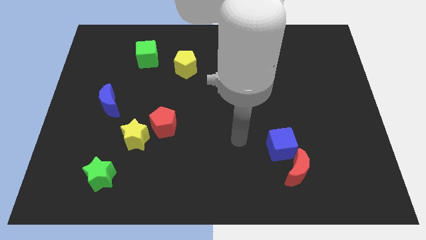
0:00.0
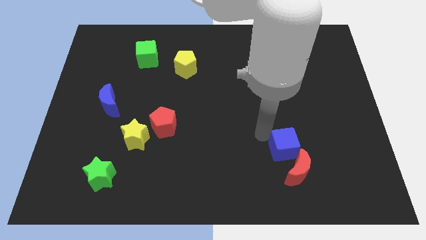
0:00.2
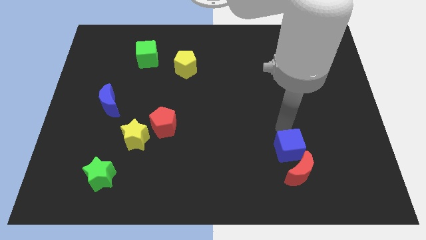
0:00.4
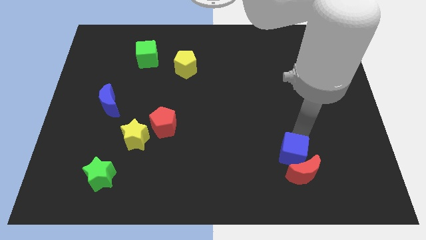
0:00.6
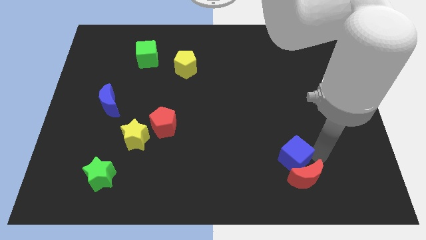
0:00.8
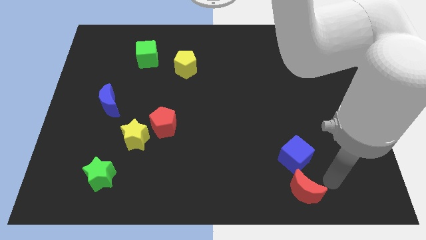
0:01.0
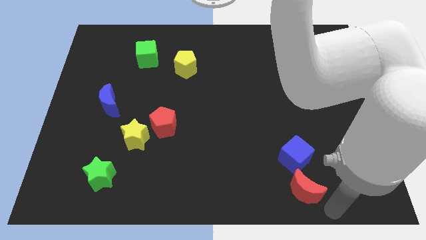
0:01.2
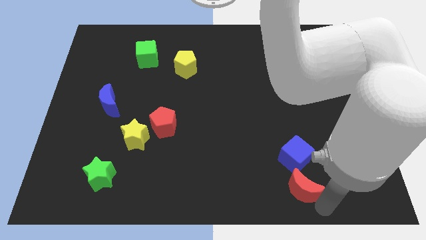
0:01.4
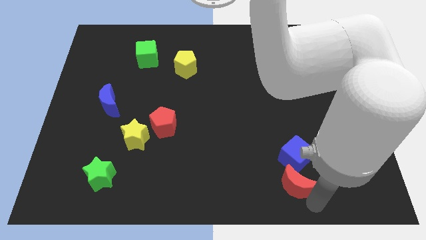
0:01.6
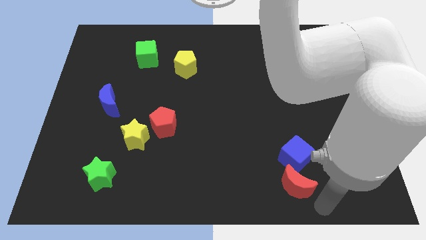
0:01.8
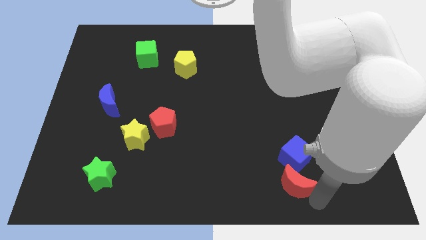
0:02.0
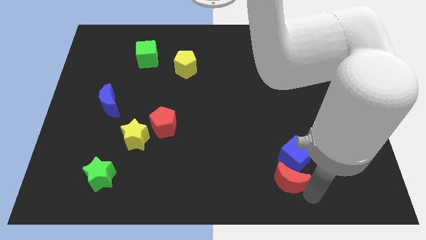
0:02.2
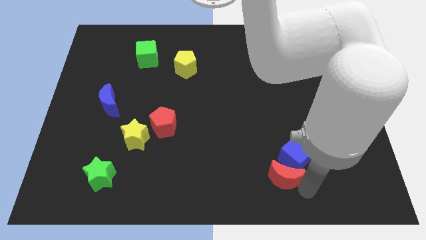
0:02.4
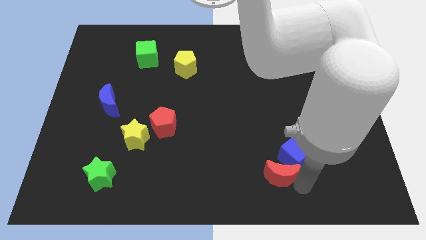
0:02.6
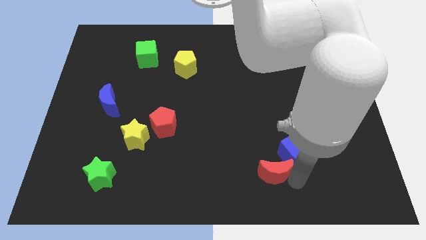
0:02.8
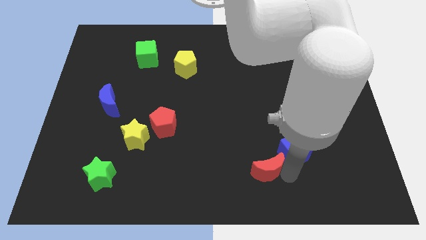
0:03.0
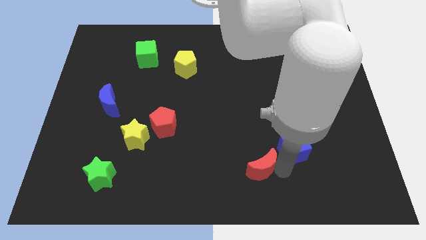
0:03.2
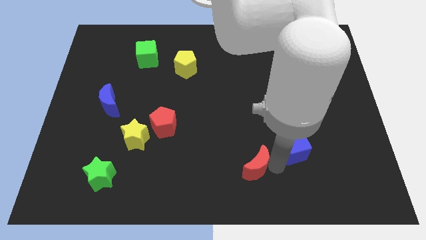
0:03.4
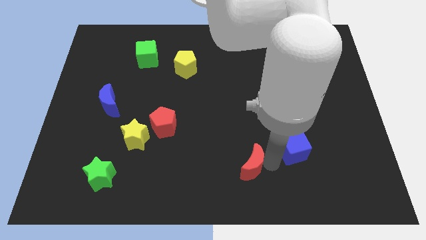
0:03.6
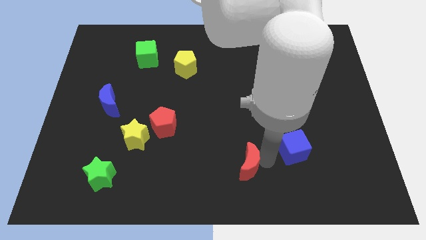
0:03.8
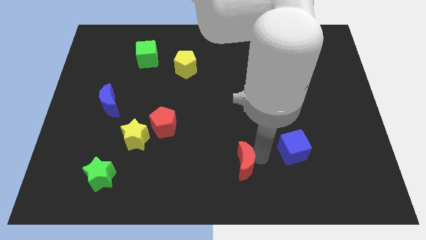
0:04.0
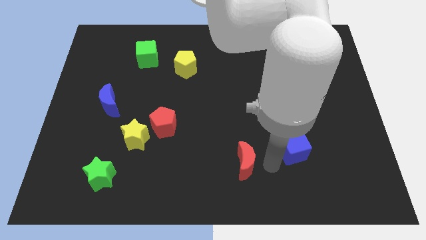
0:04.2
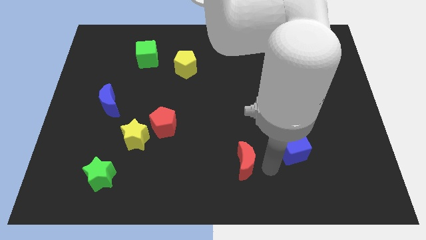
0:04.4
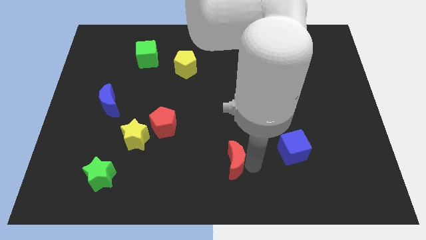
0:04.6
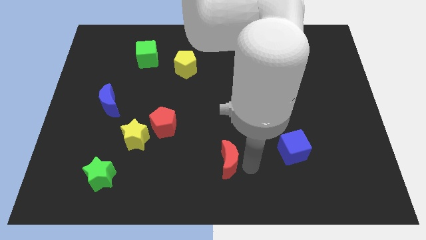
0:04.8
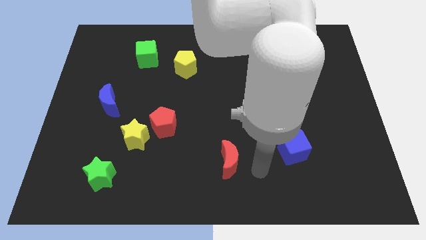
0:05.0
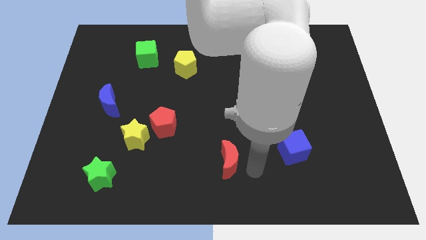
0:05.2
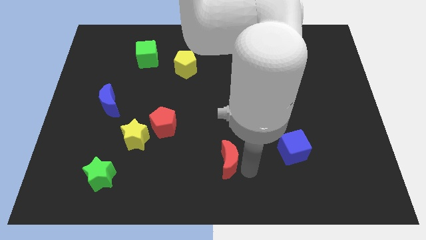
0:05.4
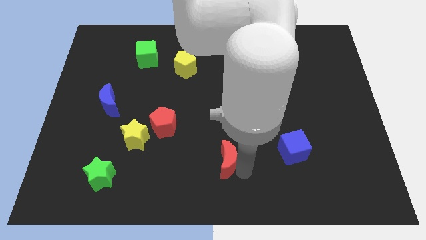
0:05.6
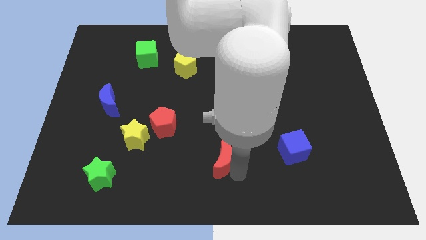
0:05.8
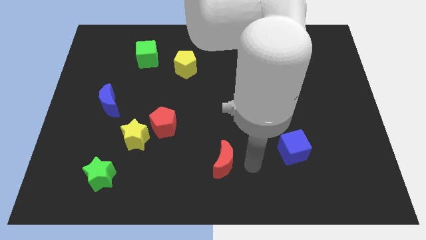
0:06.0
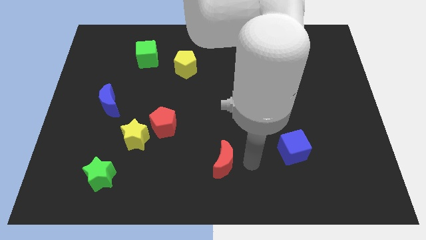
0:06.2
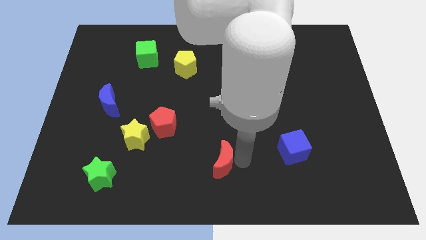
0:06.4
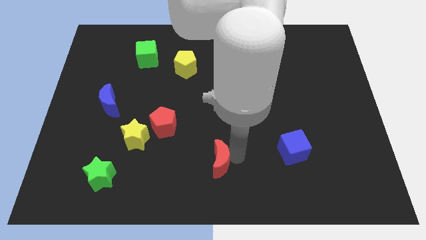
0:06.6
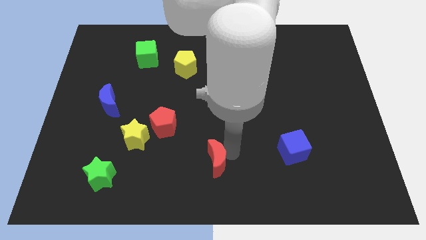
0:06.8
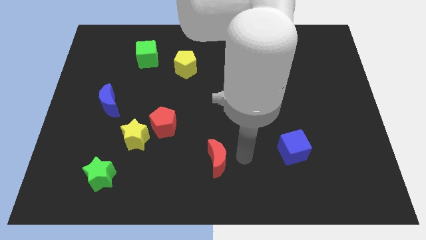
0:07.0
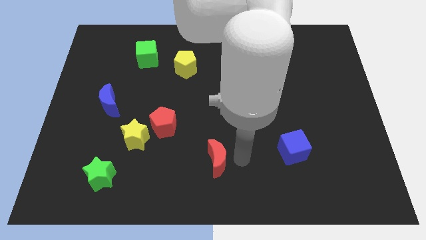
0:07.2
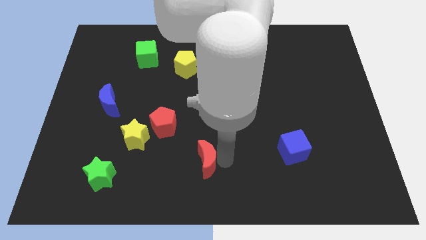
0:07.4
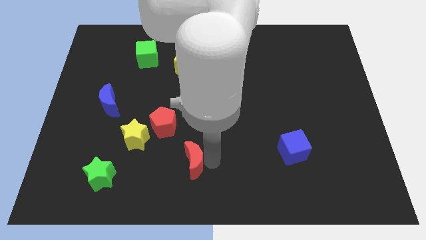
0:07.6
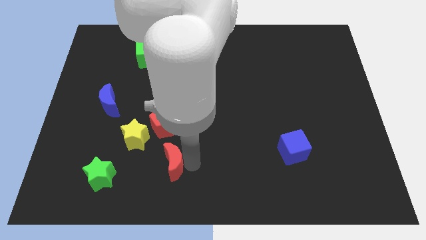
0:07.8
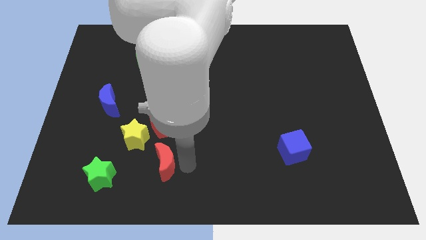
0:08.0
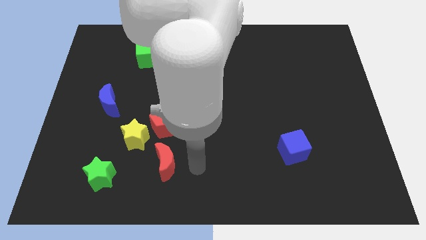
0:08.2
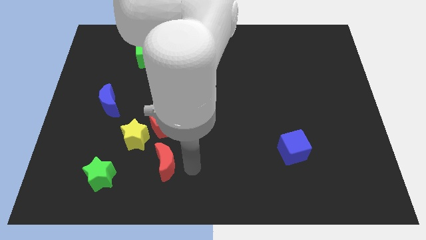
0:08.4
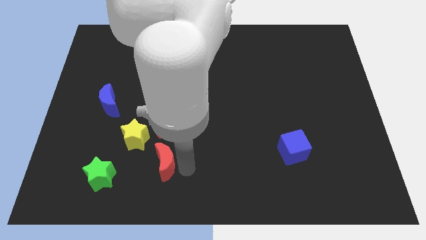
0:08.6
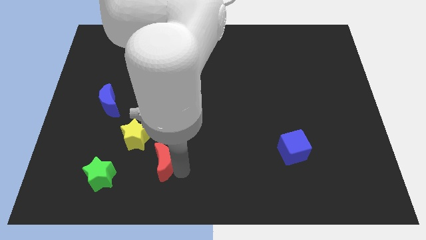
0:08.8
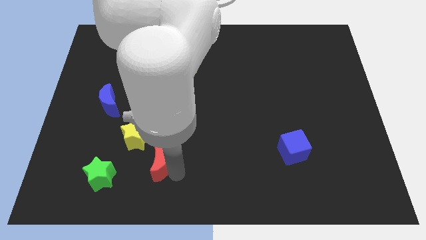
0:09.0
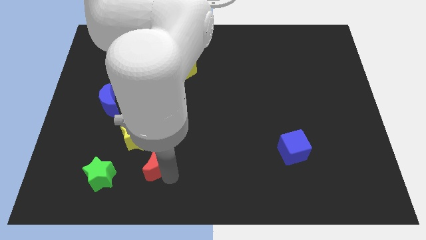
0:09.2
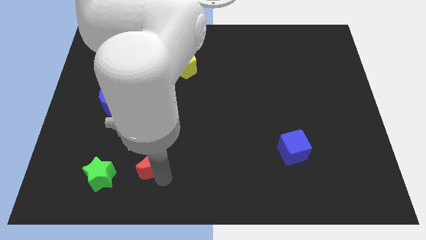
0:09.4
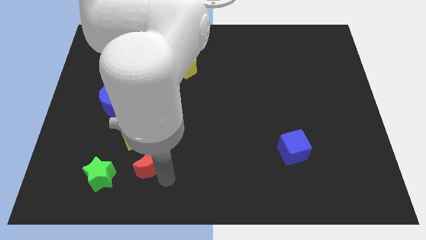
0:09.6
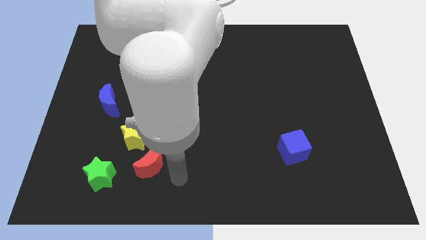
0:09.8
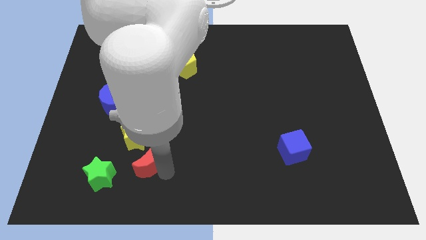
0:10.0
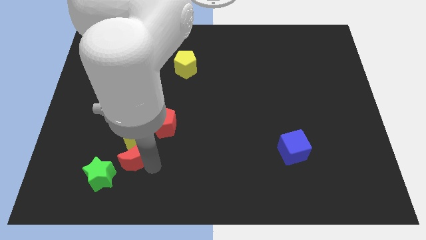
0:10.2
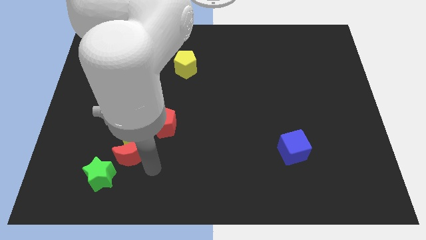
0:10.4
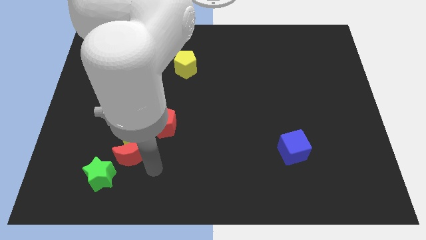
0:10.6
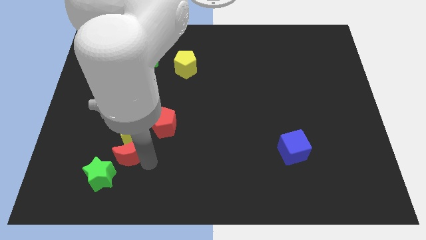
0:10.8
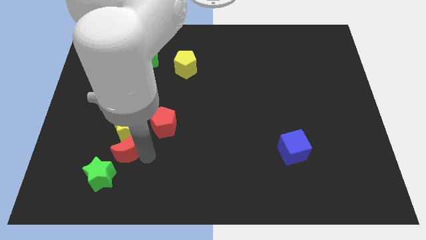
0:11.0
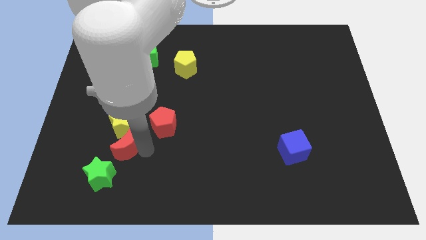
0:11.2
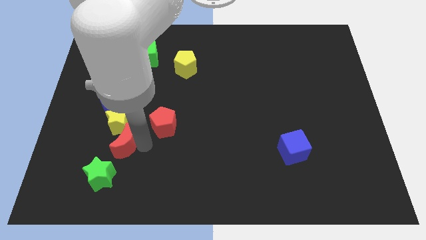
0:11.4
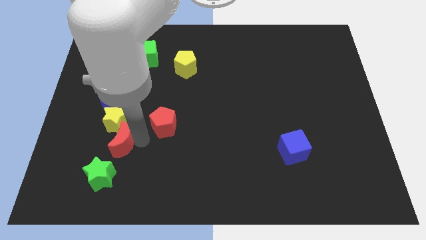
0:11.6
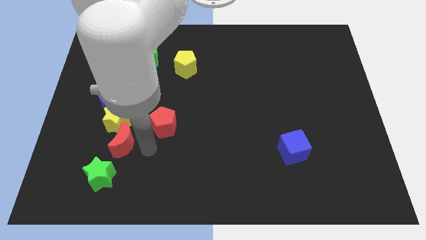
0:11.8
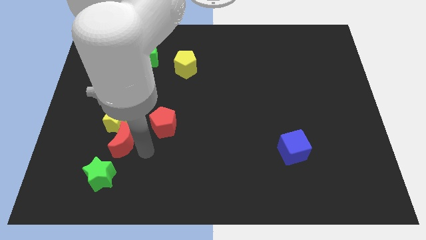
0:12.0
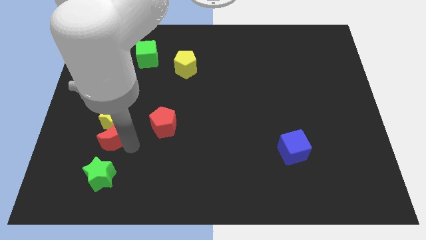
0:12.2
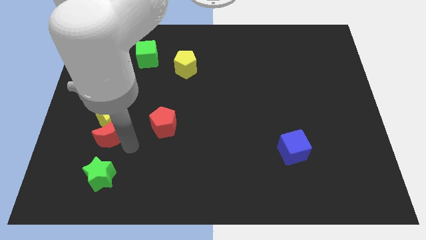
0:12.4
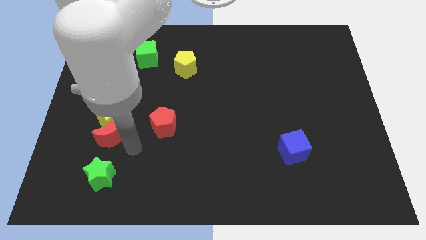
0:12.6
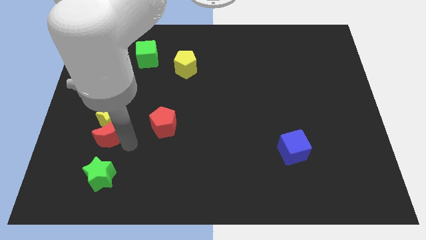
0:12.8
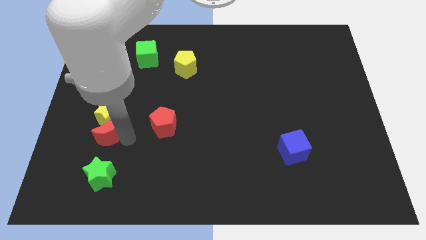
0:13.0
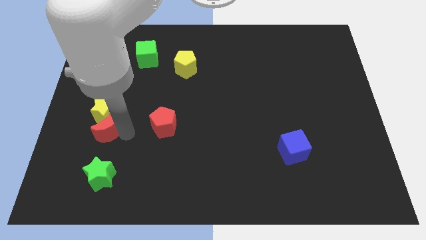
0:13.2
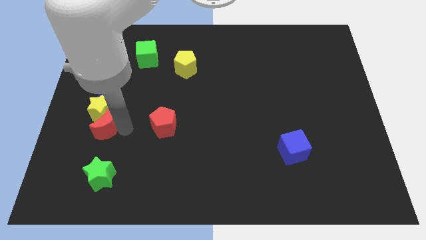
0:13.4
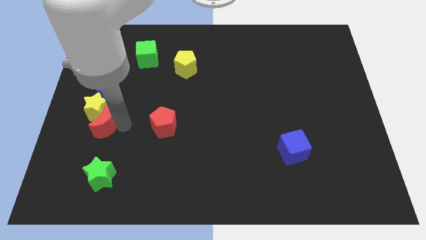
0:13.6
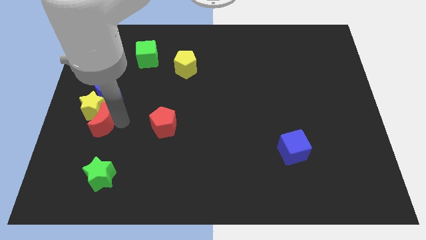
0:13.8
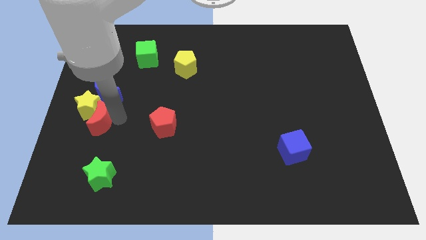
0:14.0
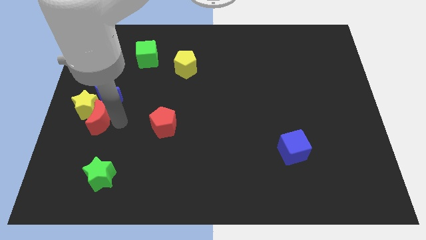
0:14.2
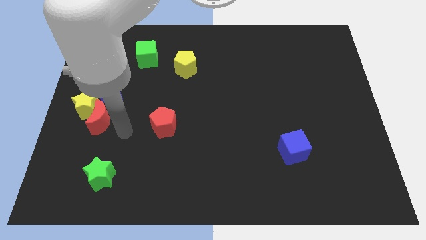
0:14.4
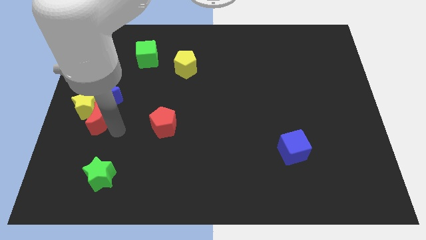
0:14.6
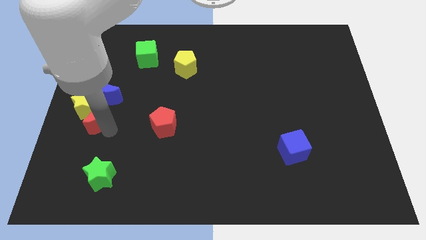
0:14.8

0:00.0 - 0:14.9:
slide the red moon to the left side of the board
